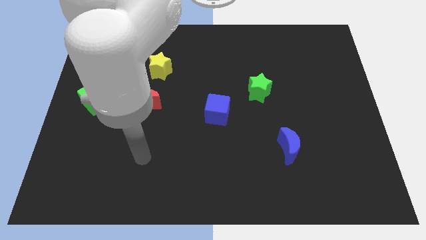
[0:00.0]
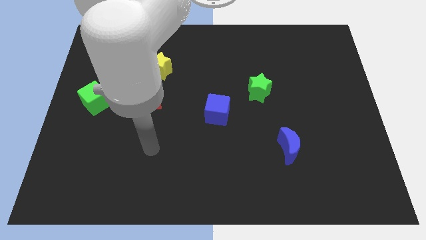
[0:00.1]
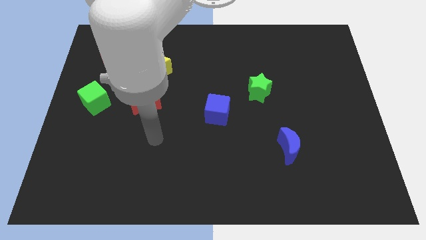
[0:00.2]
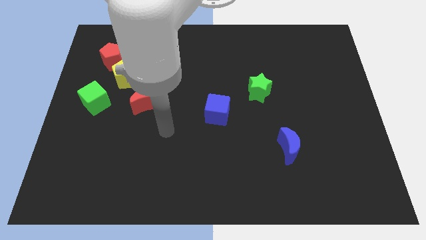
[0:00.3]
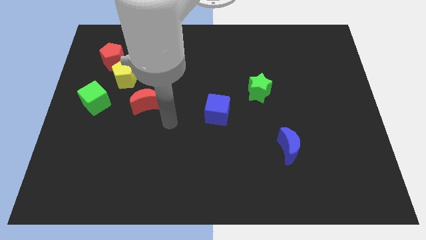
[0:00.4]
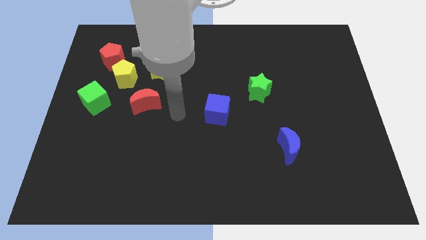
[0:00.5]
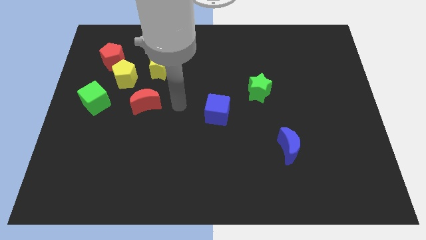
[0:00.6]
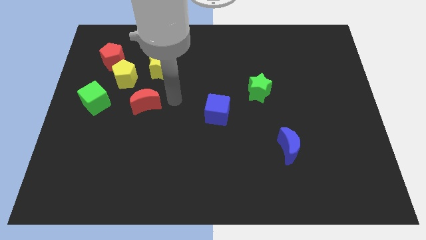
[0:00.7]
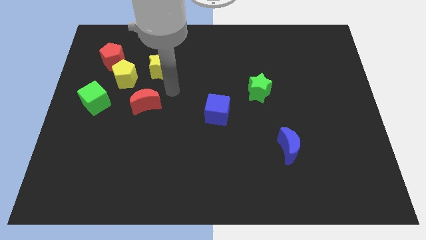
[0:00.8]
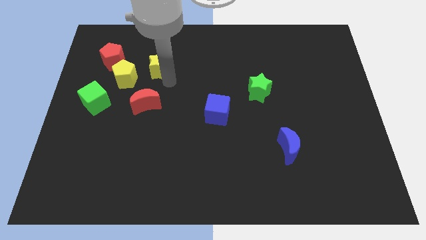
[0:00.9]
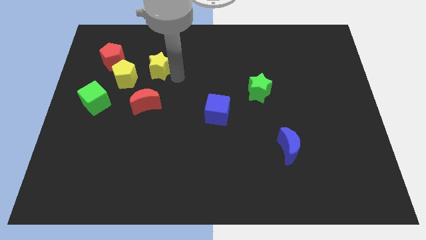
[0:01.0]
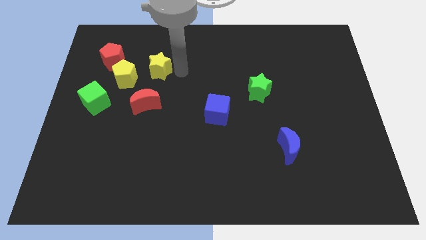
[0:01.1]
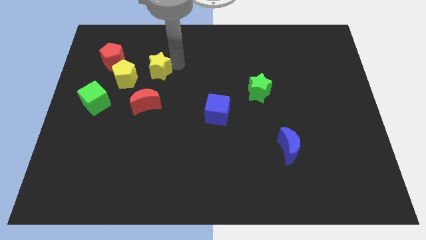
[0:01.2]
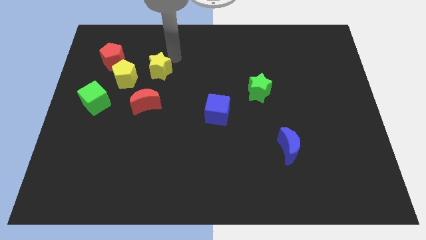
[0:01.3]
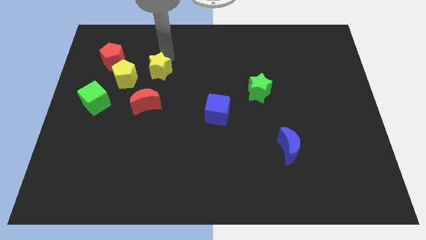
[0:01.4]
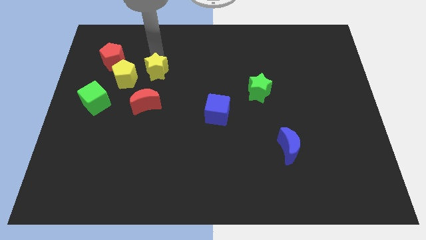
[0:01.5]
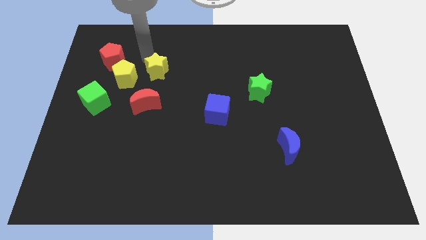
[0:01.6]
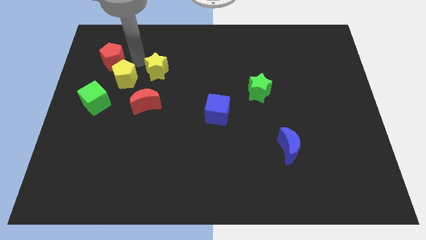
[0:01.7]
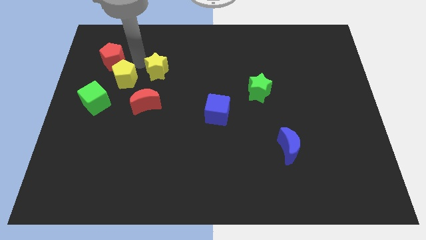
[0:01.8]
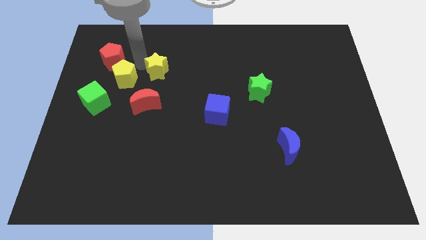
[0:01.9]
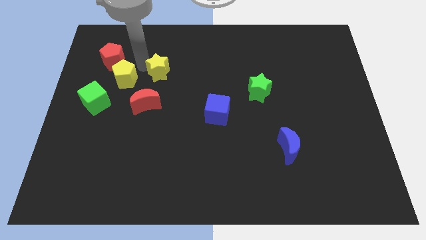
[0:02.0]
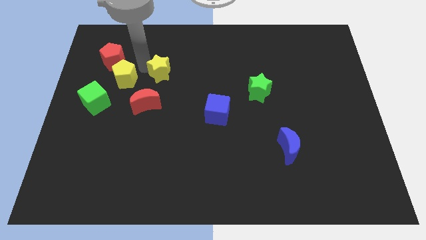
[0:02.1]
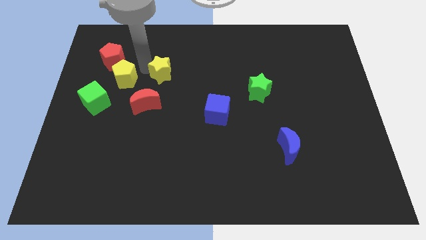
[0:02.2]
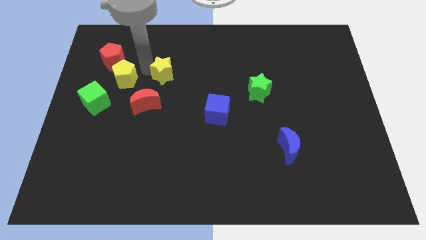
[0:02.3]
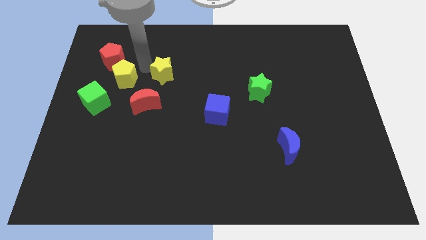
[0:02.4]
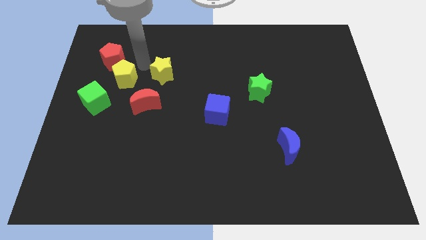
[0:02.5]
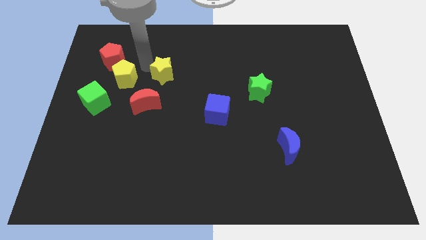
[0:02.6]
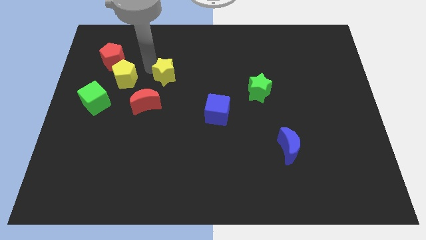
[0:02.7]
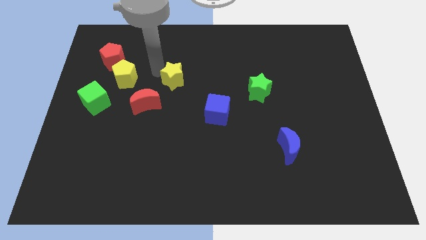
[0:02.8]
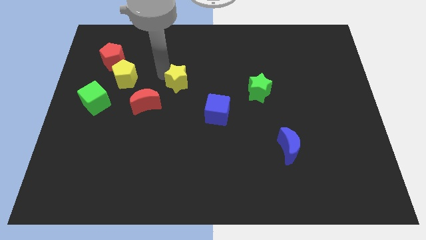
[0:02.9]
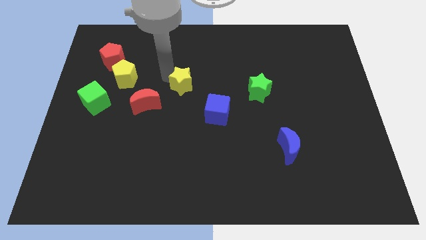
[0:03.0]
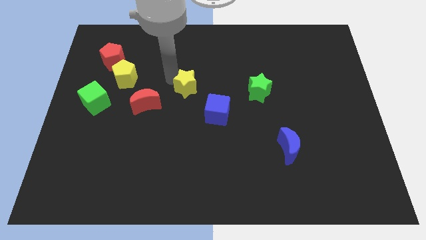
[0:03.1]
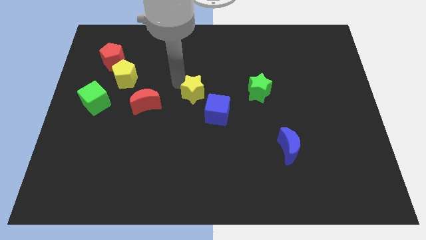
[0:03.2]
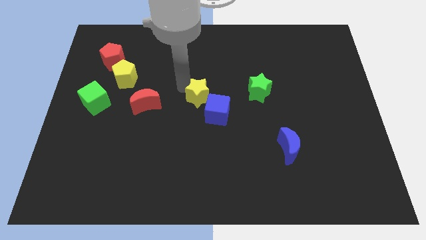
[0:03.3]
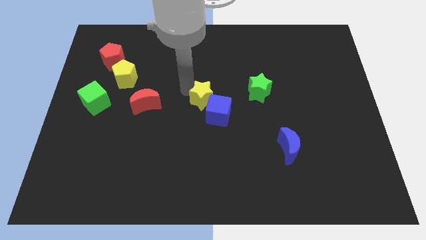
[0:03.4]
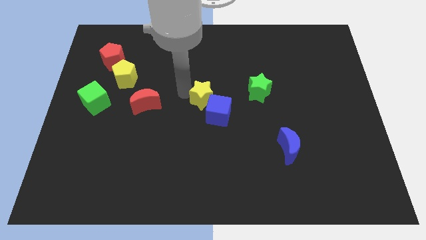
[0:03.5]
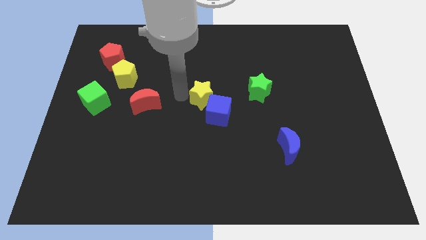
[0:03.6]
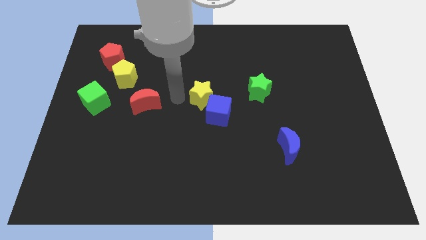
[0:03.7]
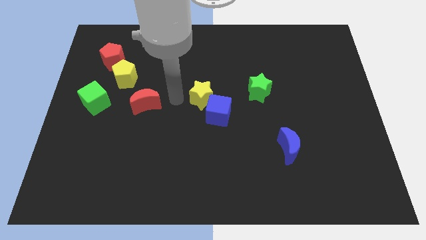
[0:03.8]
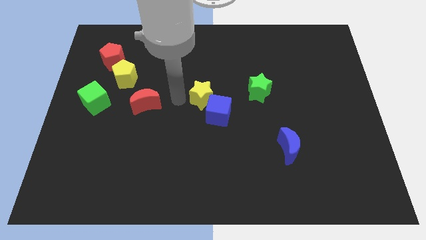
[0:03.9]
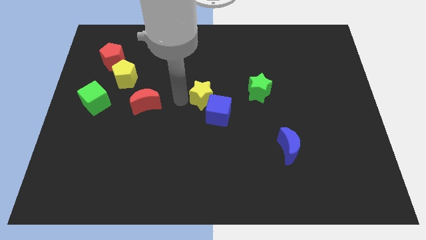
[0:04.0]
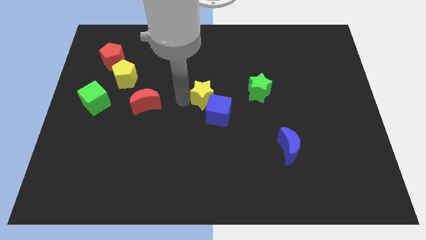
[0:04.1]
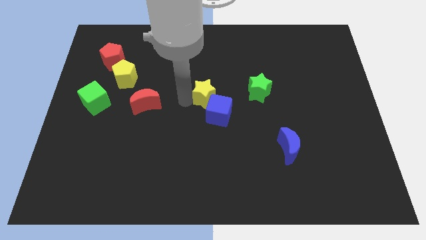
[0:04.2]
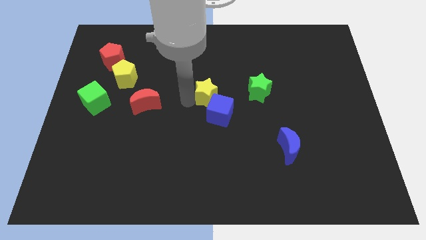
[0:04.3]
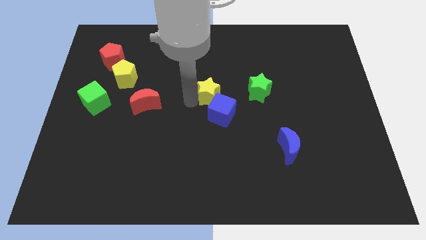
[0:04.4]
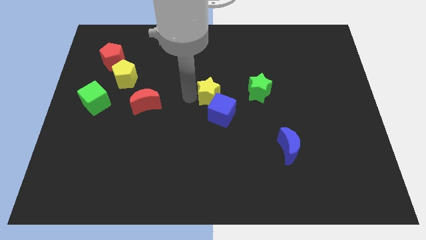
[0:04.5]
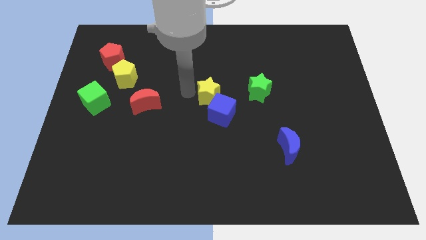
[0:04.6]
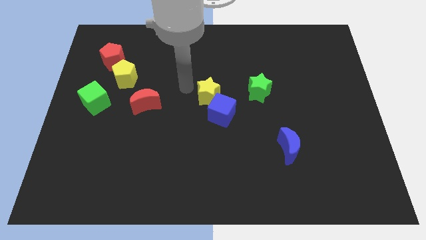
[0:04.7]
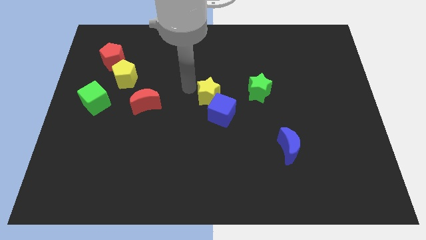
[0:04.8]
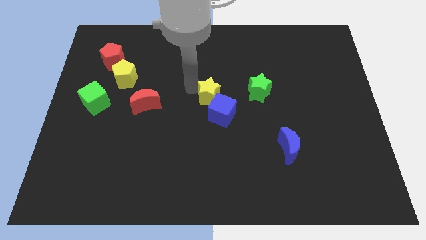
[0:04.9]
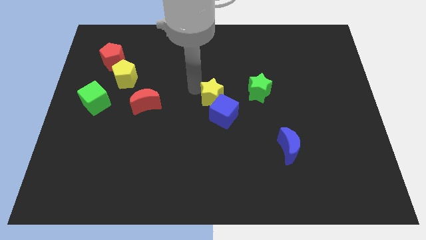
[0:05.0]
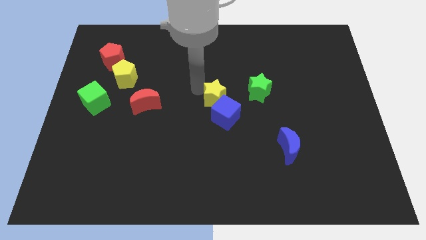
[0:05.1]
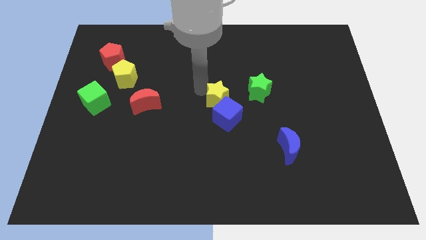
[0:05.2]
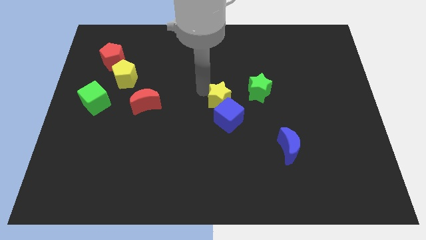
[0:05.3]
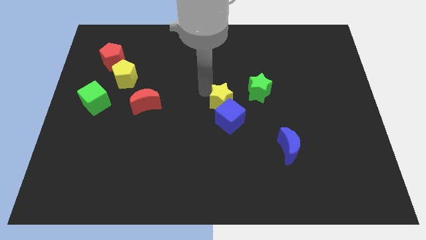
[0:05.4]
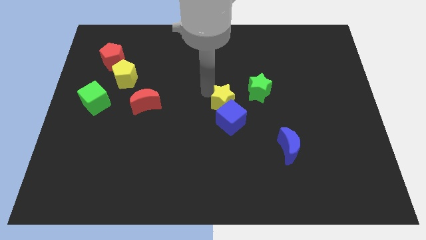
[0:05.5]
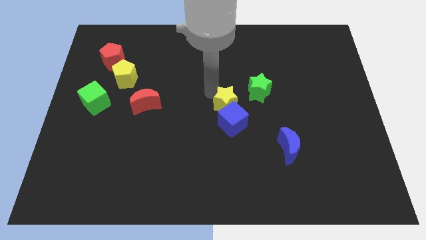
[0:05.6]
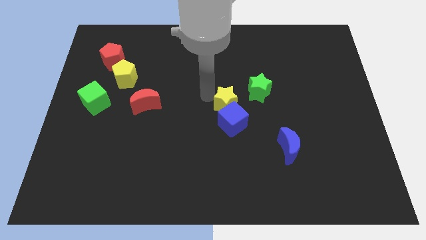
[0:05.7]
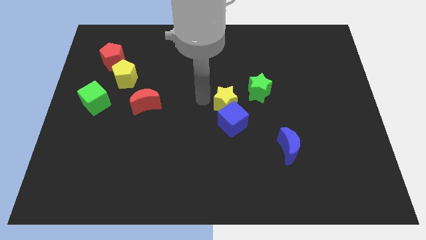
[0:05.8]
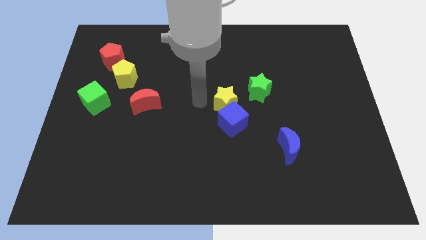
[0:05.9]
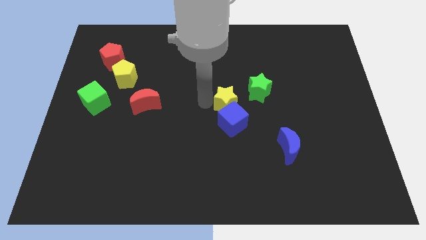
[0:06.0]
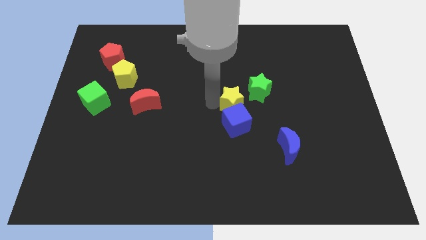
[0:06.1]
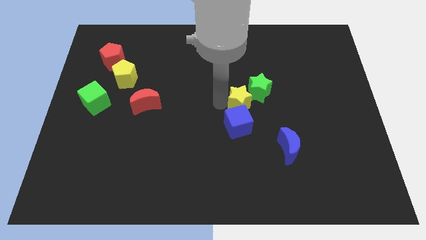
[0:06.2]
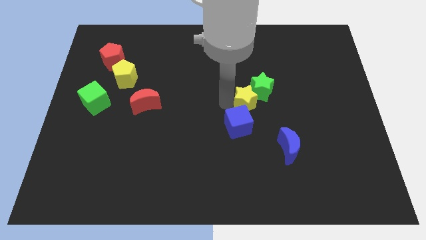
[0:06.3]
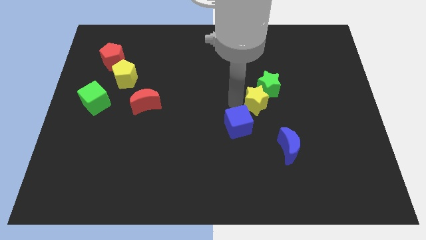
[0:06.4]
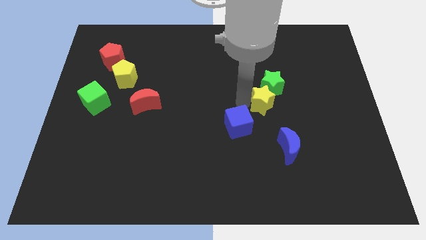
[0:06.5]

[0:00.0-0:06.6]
move the yellow star above the blue moon
